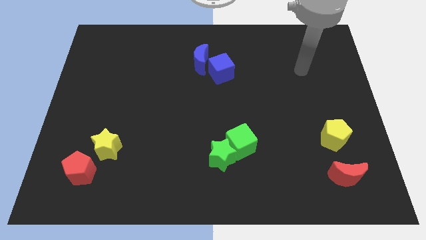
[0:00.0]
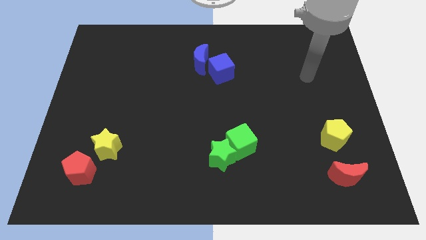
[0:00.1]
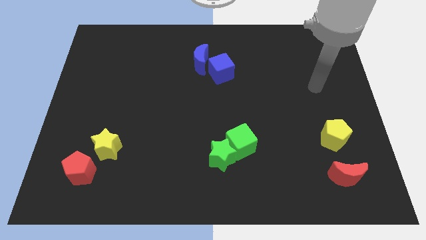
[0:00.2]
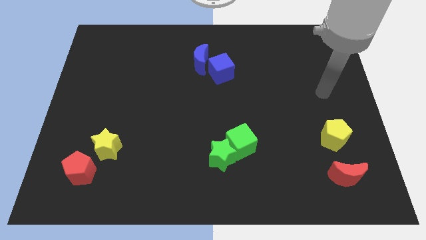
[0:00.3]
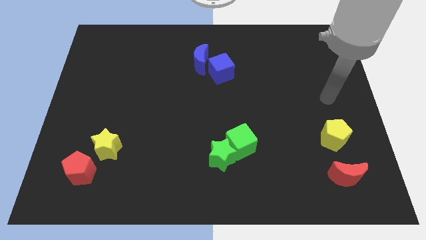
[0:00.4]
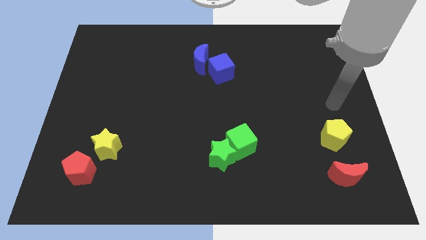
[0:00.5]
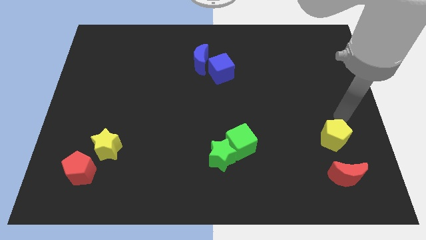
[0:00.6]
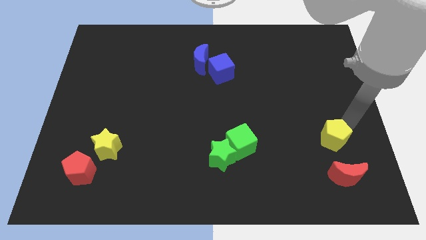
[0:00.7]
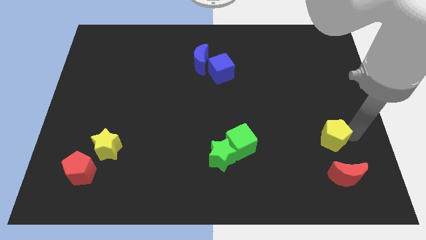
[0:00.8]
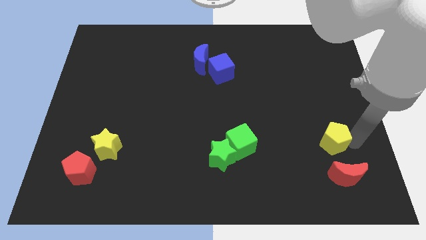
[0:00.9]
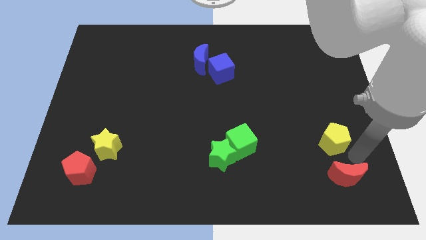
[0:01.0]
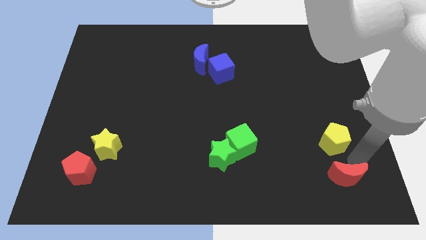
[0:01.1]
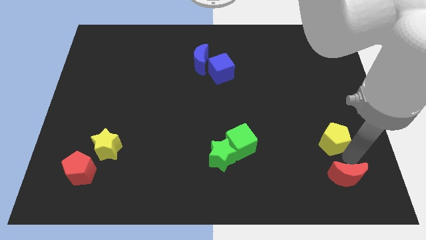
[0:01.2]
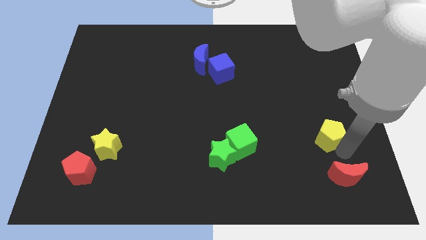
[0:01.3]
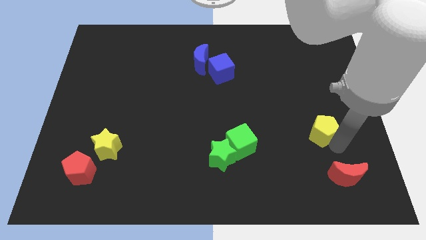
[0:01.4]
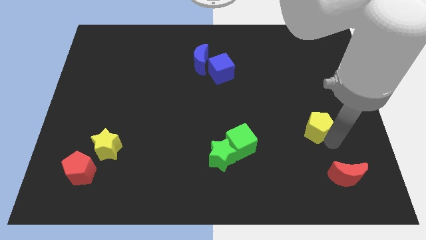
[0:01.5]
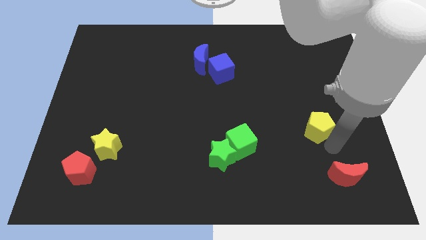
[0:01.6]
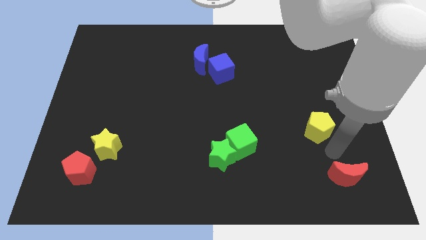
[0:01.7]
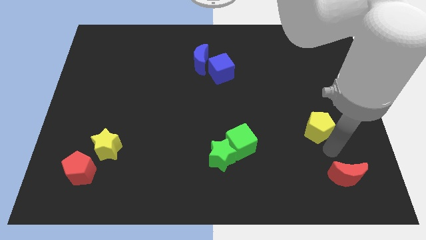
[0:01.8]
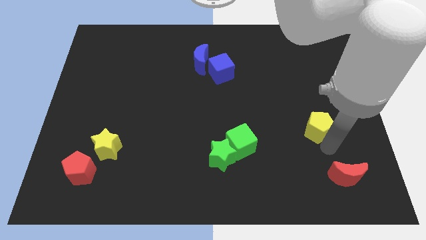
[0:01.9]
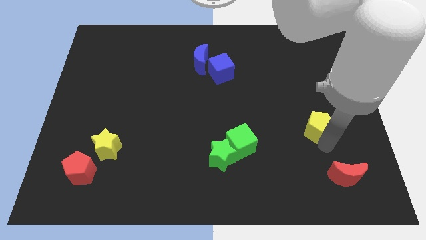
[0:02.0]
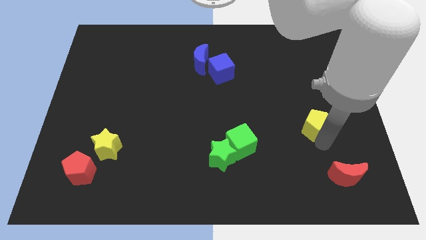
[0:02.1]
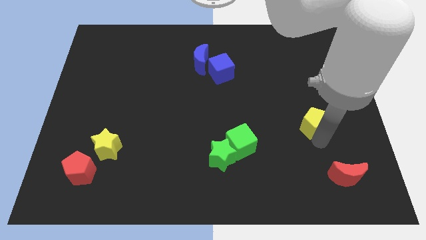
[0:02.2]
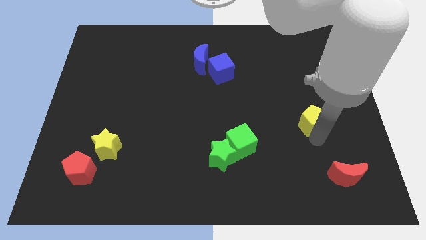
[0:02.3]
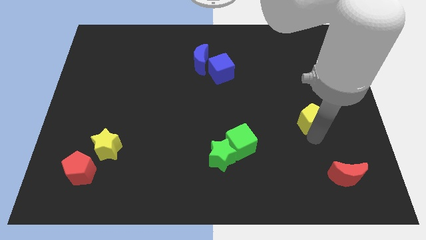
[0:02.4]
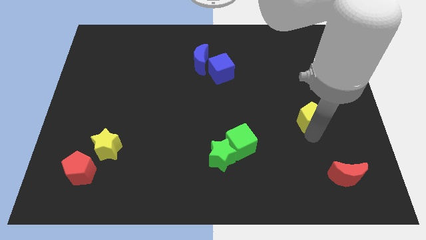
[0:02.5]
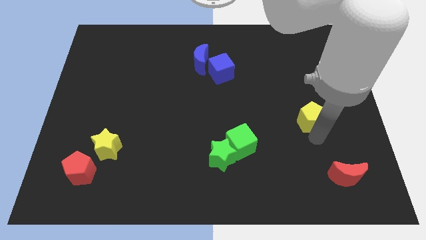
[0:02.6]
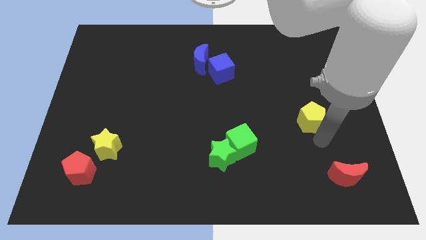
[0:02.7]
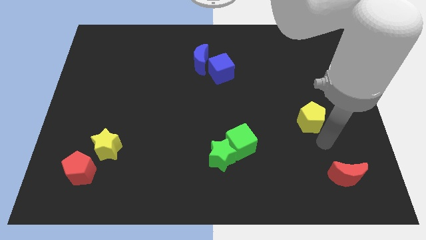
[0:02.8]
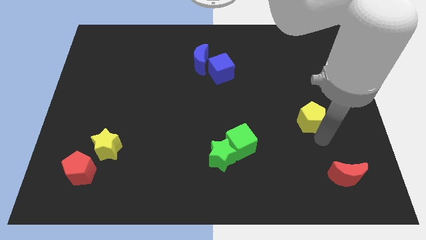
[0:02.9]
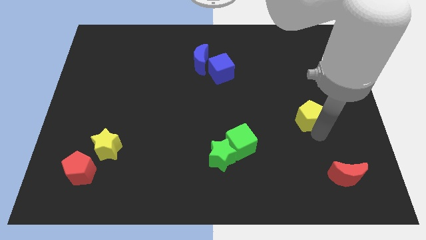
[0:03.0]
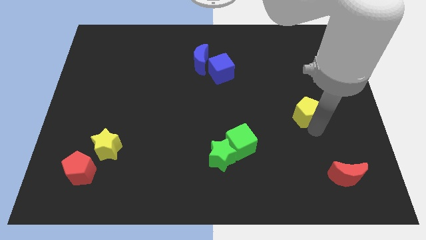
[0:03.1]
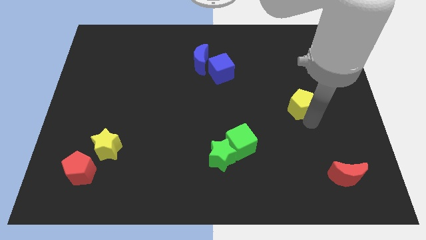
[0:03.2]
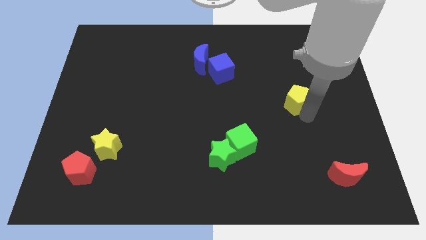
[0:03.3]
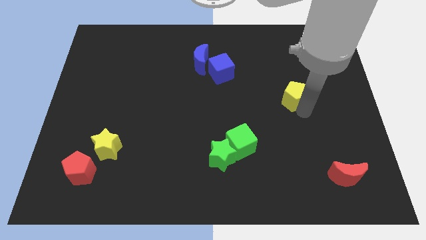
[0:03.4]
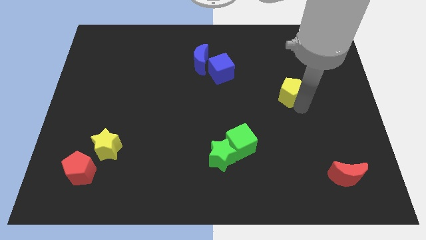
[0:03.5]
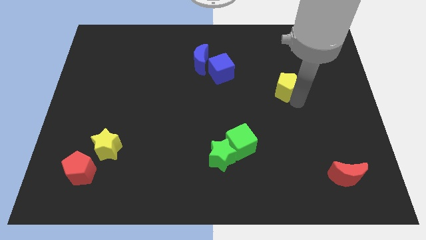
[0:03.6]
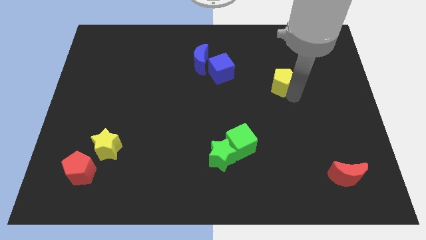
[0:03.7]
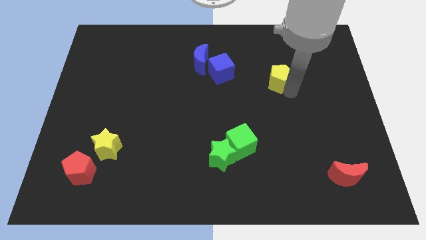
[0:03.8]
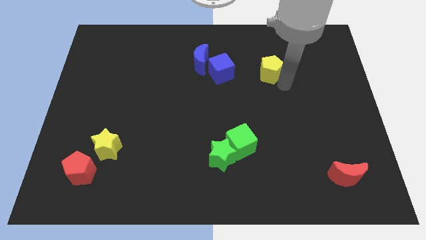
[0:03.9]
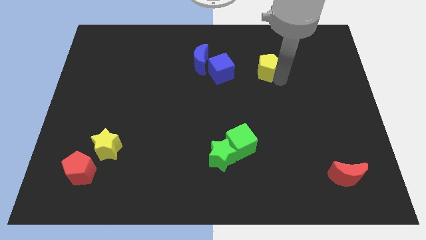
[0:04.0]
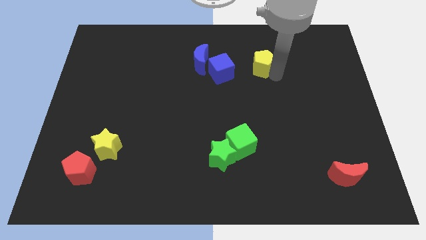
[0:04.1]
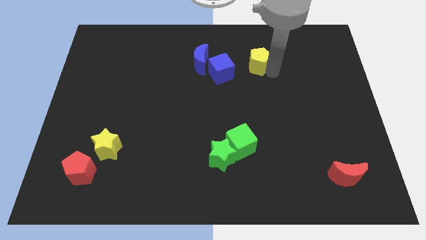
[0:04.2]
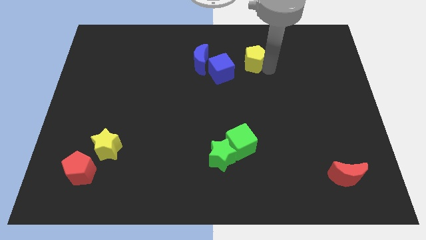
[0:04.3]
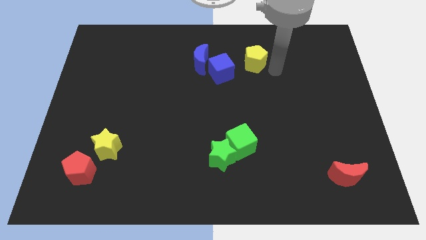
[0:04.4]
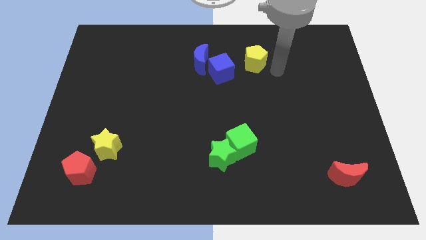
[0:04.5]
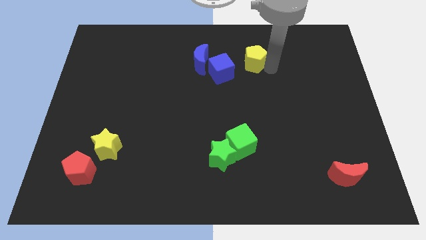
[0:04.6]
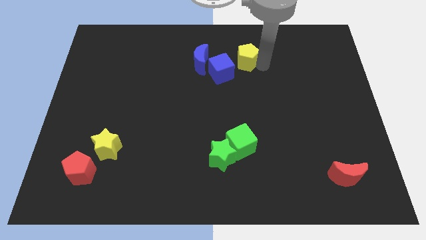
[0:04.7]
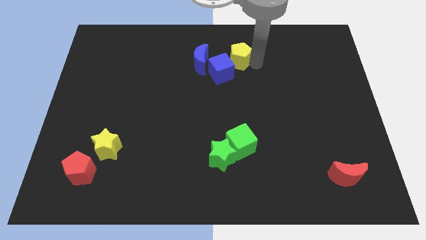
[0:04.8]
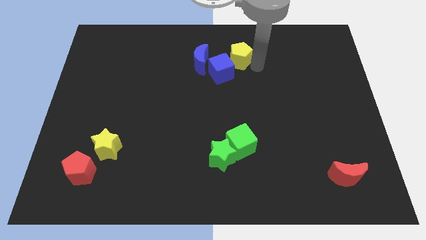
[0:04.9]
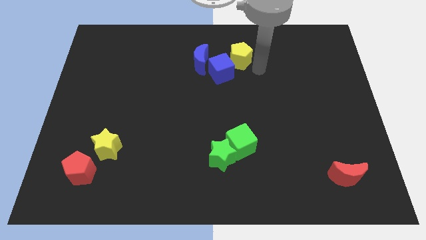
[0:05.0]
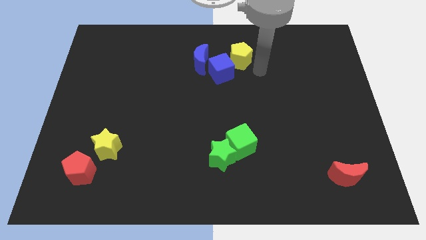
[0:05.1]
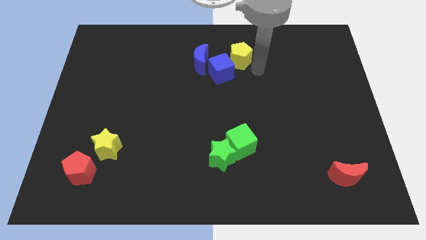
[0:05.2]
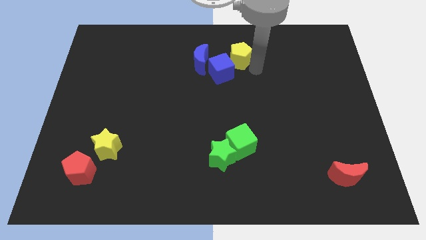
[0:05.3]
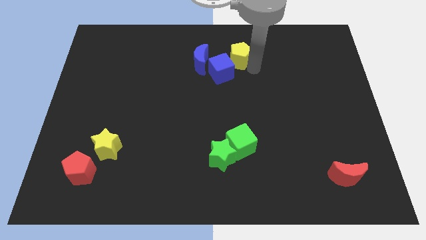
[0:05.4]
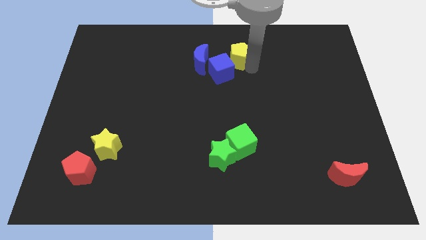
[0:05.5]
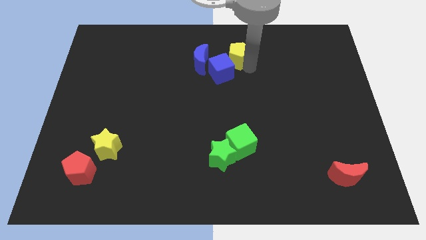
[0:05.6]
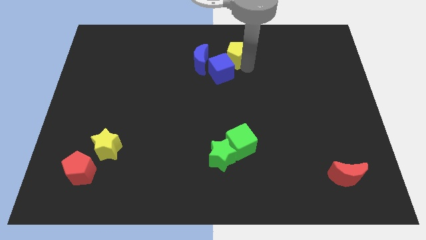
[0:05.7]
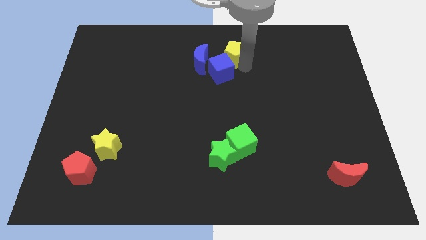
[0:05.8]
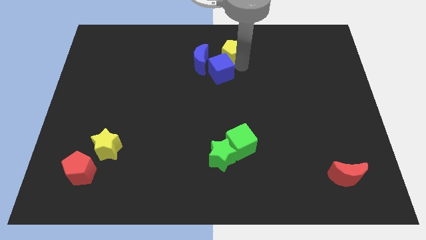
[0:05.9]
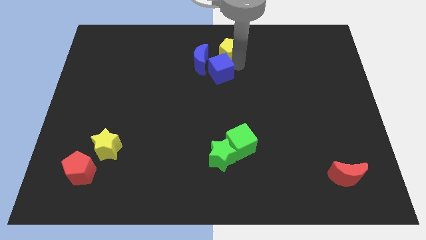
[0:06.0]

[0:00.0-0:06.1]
slide the yellow pentagon to the towards your base

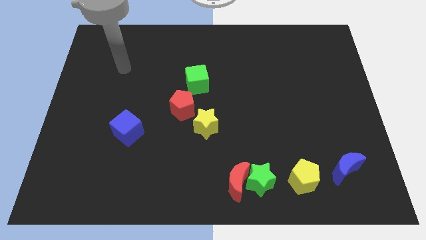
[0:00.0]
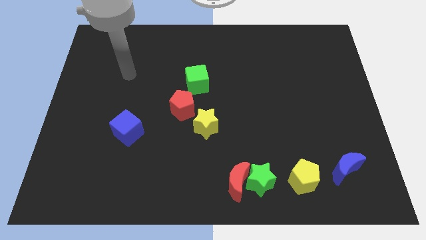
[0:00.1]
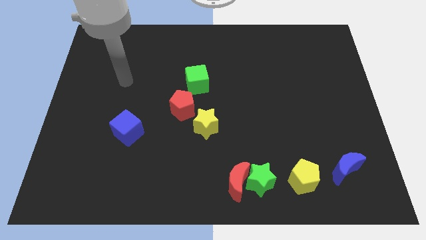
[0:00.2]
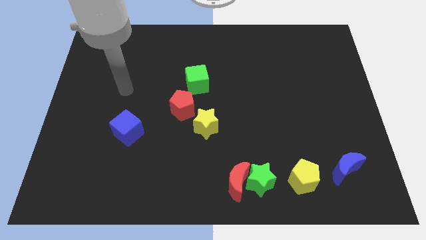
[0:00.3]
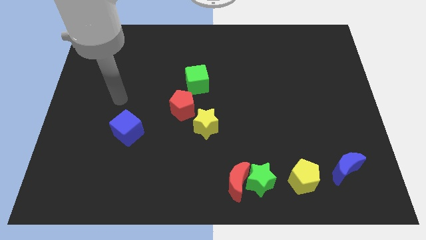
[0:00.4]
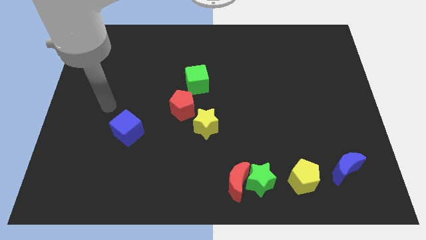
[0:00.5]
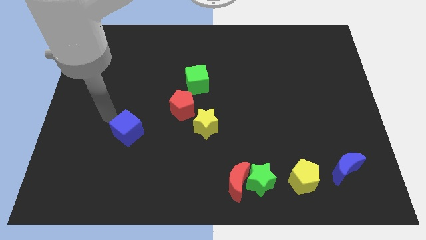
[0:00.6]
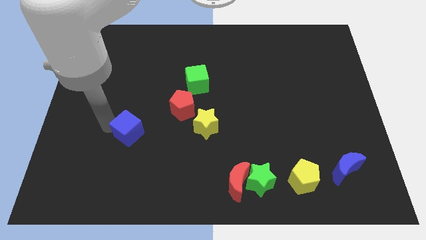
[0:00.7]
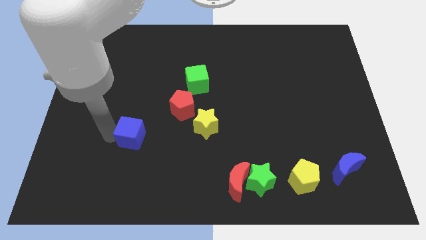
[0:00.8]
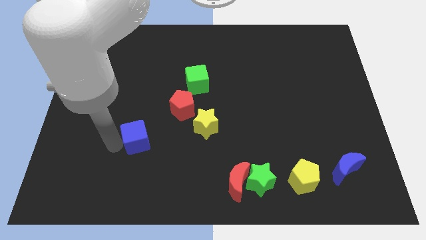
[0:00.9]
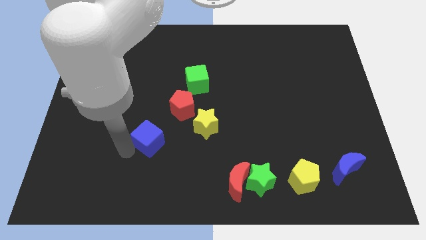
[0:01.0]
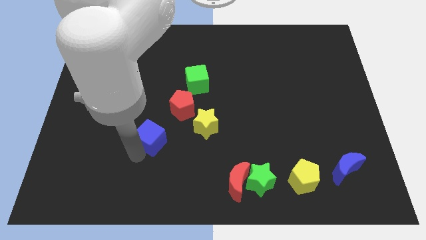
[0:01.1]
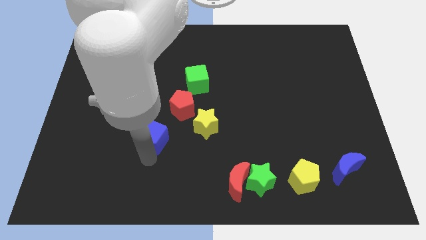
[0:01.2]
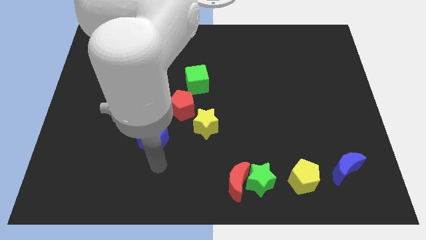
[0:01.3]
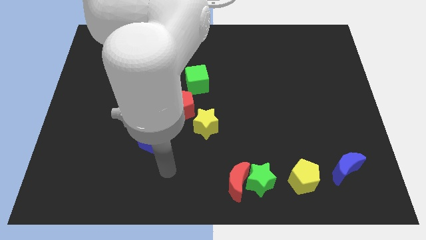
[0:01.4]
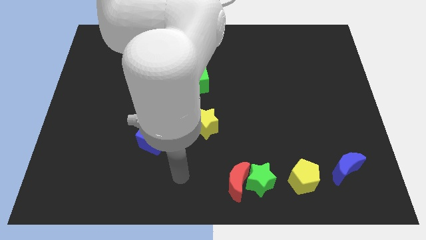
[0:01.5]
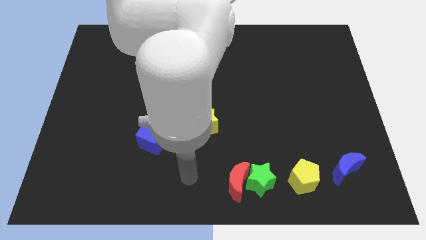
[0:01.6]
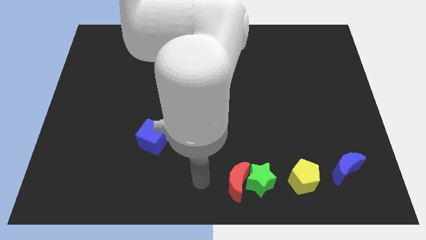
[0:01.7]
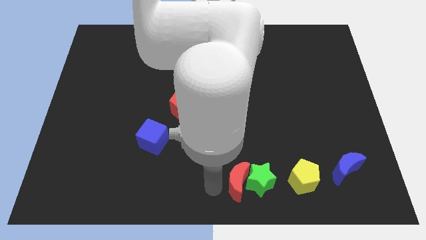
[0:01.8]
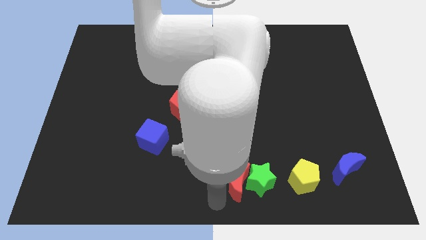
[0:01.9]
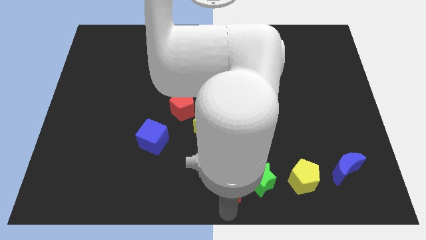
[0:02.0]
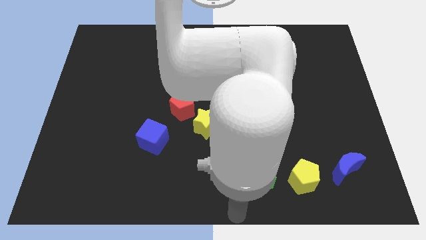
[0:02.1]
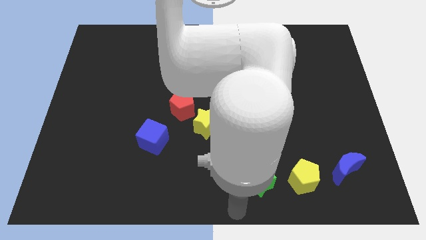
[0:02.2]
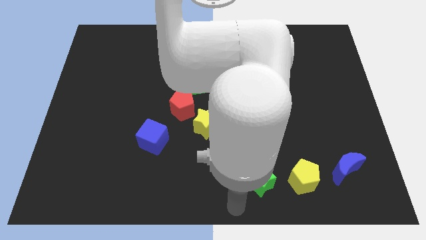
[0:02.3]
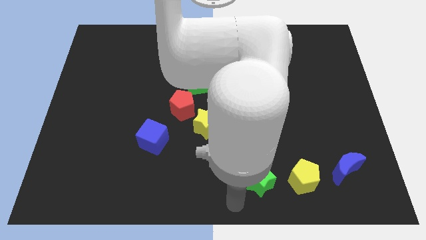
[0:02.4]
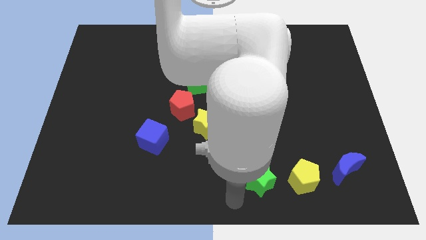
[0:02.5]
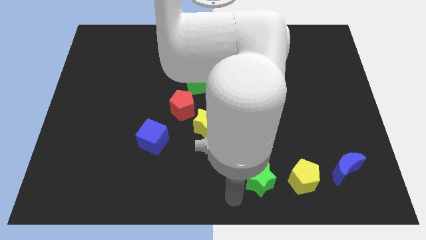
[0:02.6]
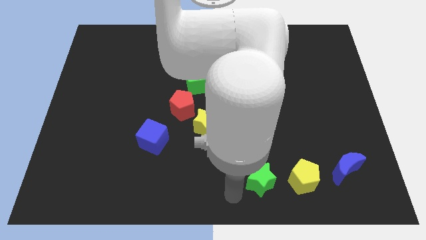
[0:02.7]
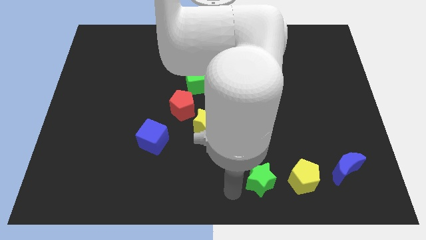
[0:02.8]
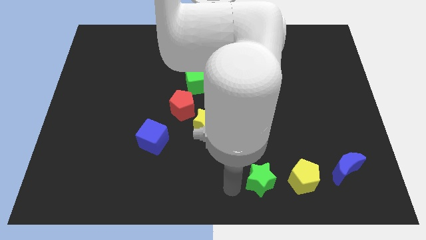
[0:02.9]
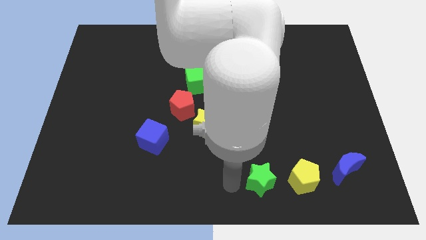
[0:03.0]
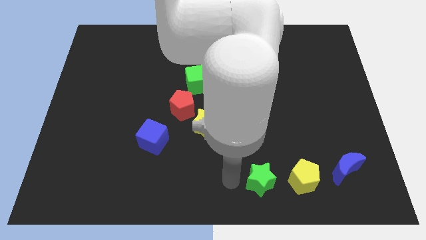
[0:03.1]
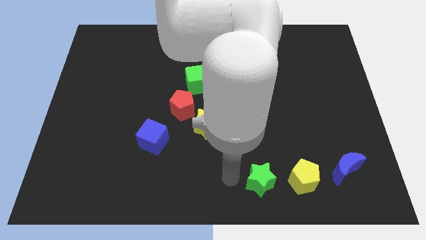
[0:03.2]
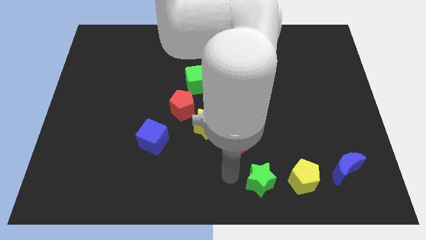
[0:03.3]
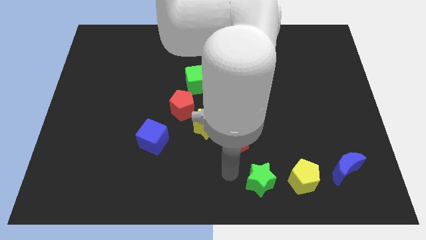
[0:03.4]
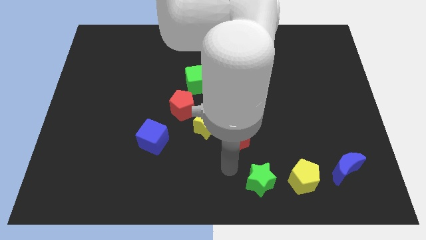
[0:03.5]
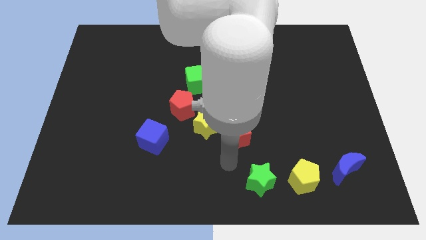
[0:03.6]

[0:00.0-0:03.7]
push the red moon to the middle
